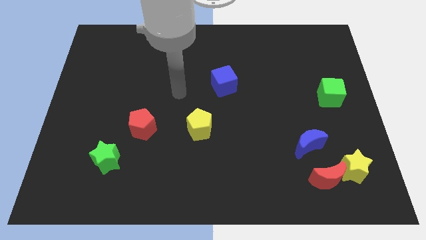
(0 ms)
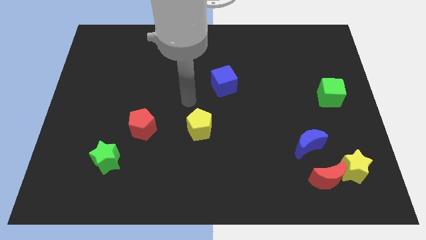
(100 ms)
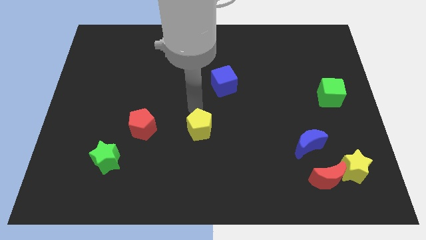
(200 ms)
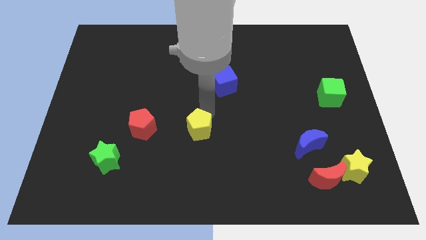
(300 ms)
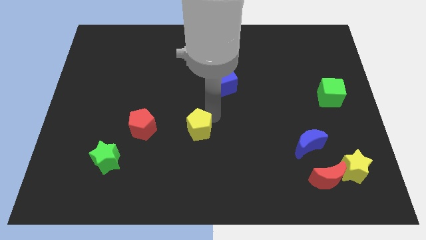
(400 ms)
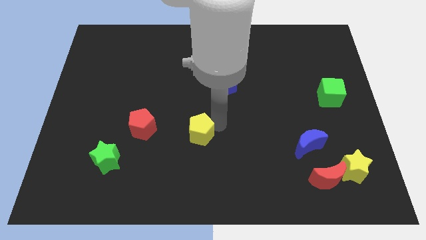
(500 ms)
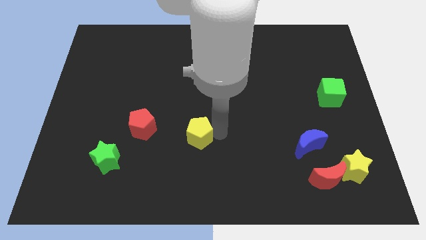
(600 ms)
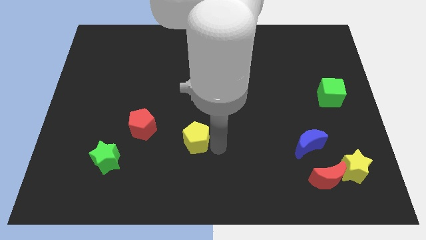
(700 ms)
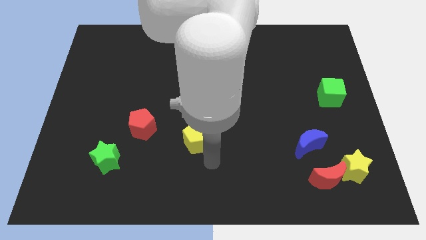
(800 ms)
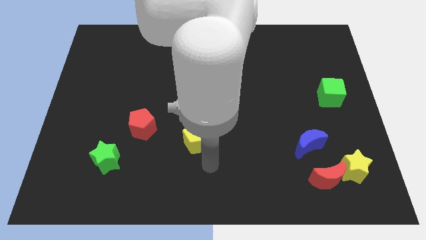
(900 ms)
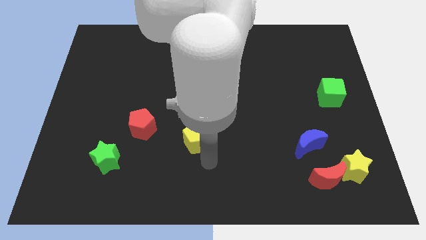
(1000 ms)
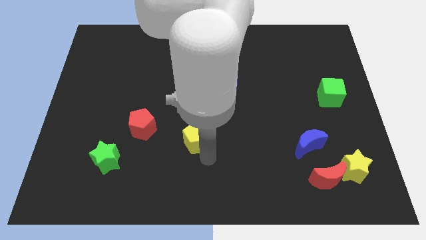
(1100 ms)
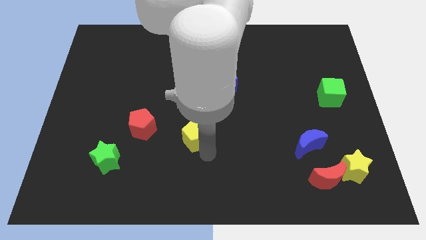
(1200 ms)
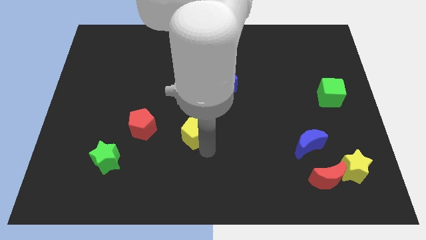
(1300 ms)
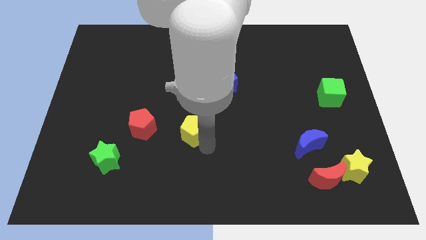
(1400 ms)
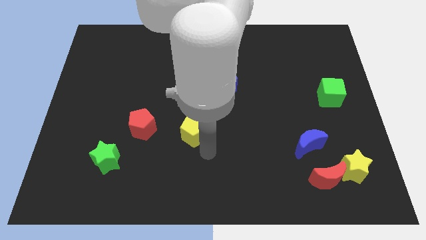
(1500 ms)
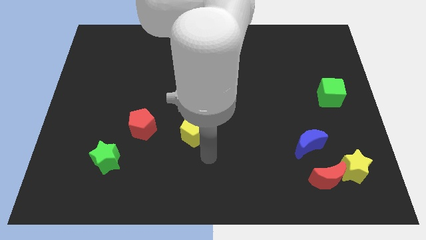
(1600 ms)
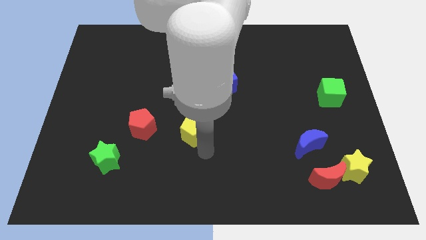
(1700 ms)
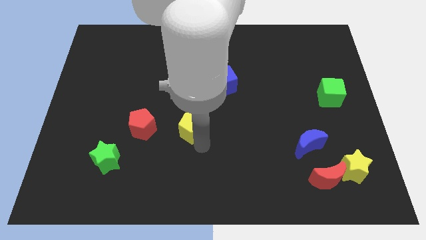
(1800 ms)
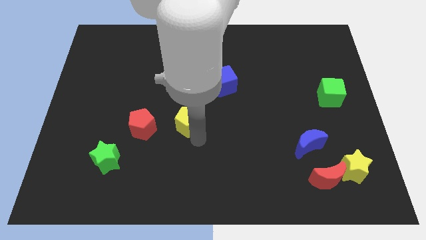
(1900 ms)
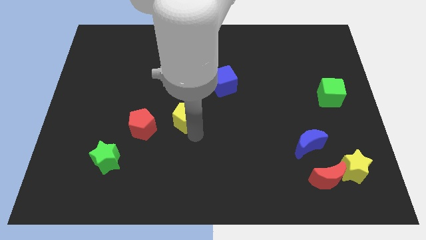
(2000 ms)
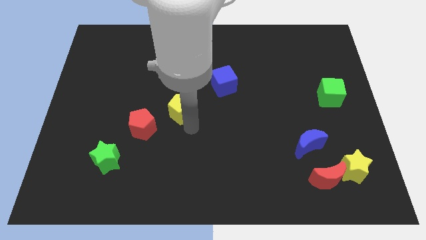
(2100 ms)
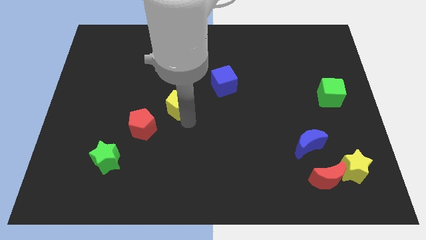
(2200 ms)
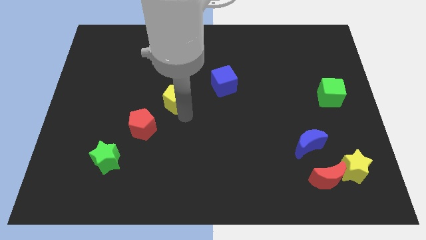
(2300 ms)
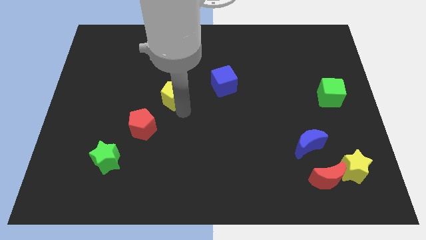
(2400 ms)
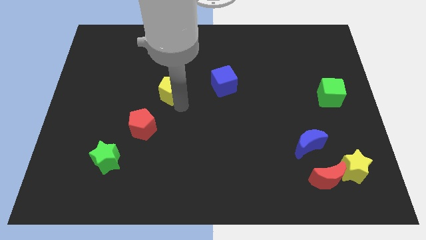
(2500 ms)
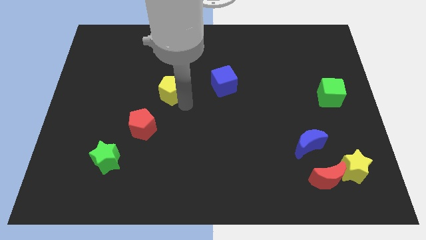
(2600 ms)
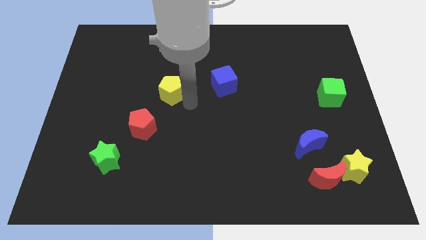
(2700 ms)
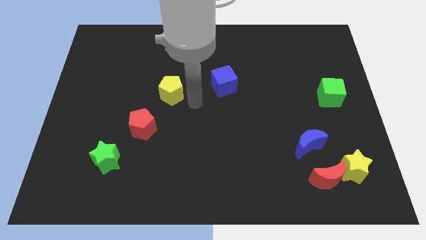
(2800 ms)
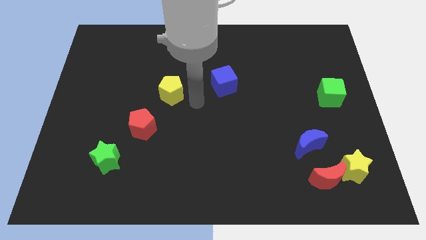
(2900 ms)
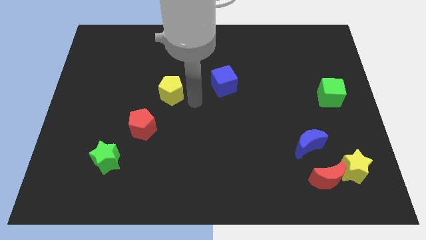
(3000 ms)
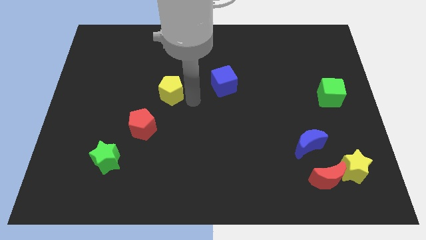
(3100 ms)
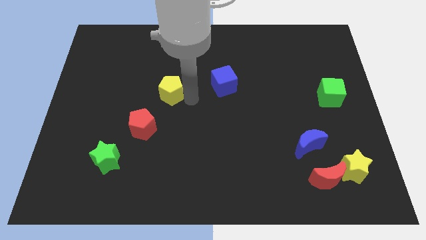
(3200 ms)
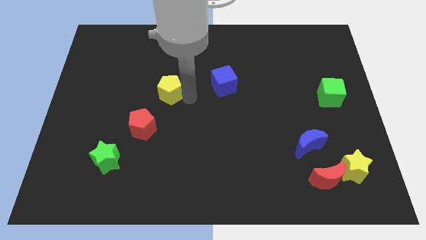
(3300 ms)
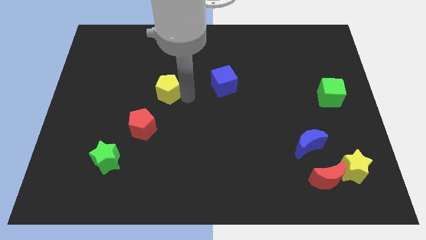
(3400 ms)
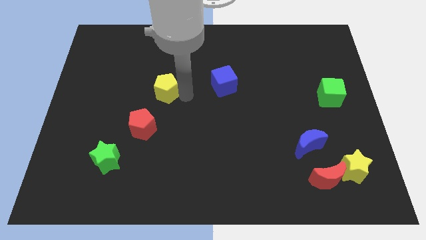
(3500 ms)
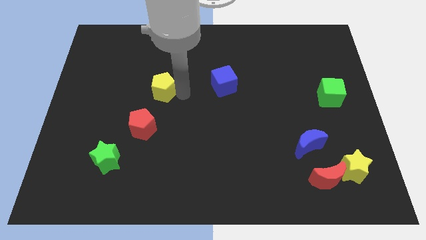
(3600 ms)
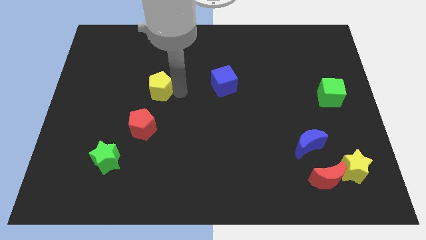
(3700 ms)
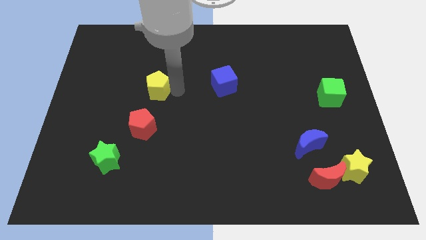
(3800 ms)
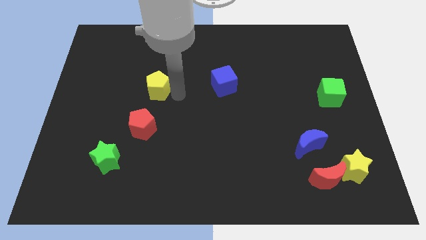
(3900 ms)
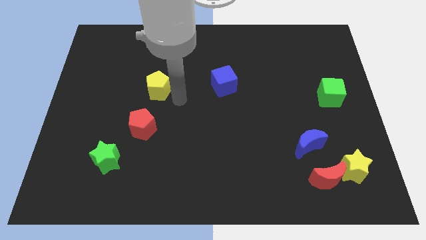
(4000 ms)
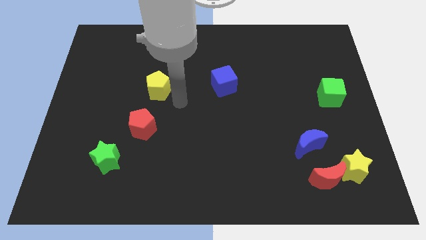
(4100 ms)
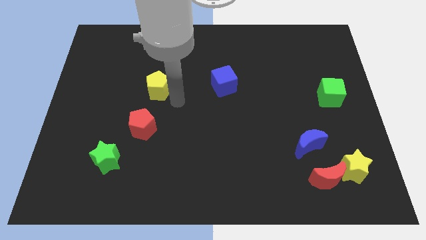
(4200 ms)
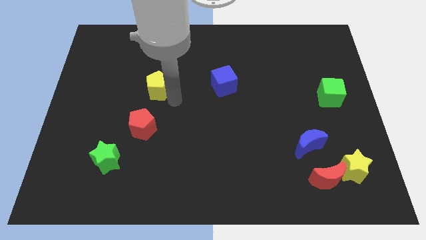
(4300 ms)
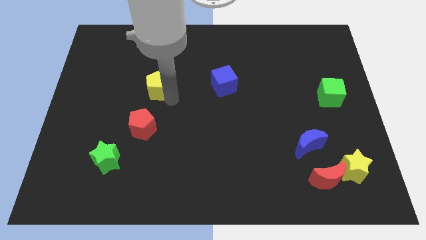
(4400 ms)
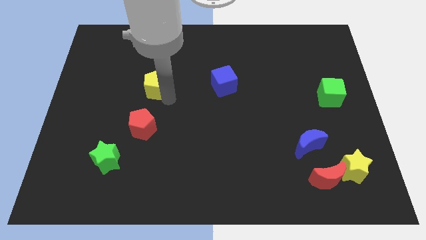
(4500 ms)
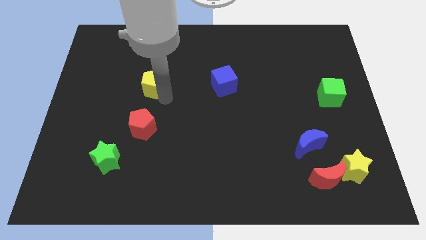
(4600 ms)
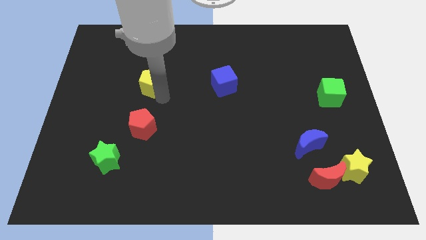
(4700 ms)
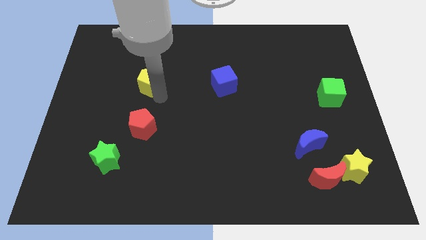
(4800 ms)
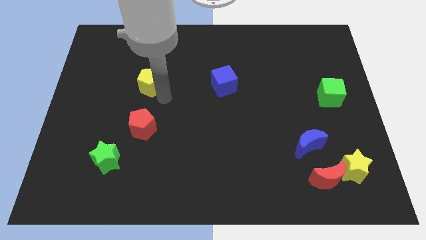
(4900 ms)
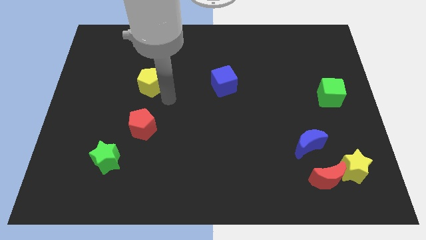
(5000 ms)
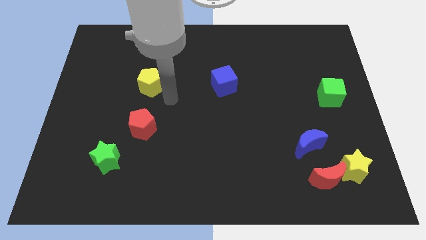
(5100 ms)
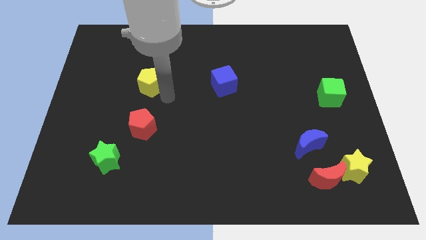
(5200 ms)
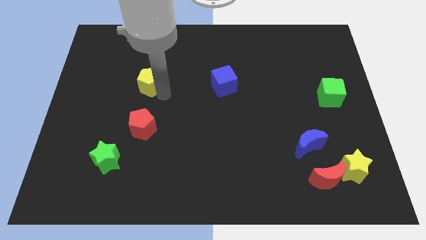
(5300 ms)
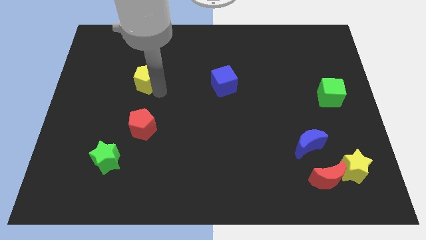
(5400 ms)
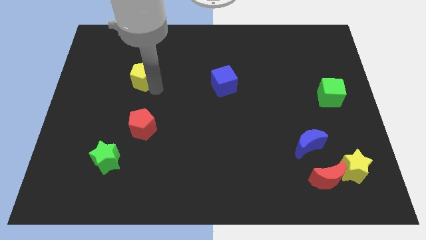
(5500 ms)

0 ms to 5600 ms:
move the yellow pentagon up and then left

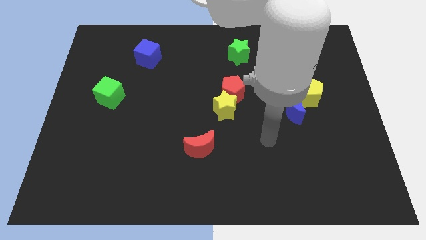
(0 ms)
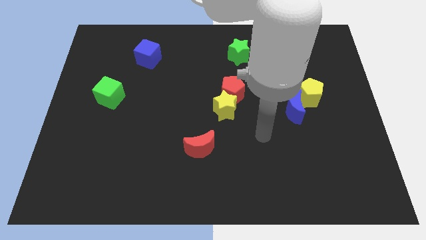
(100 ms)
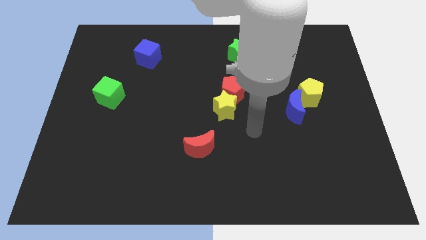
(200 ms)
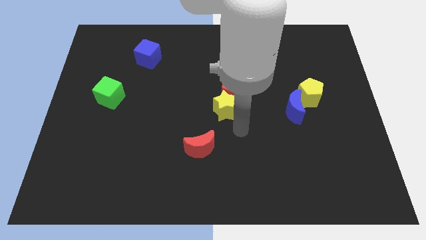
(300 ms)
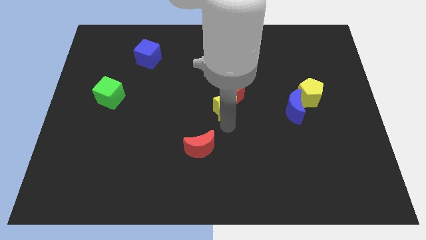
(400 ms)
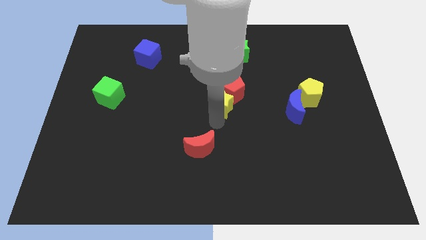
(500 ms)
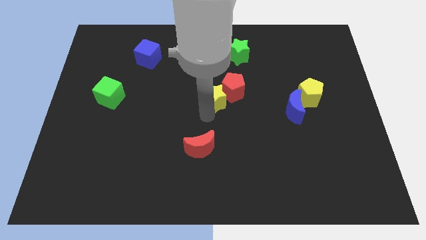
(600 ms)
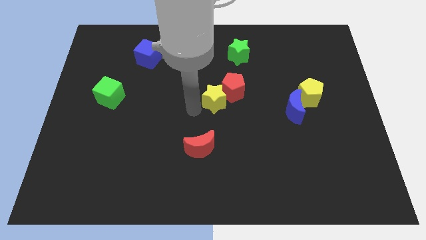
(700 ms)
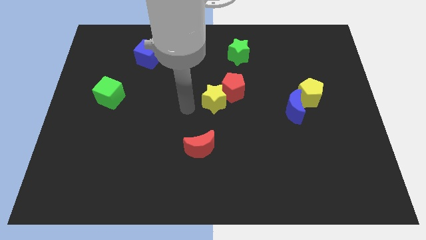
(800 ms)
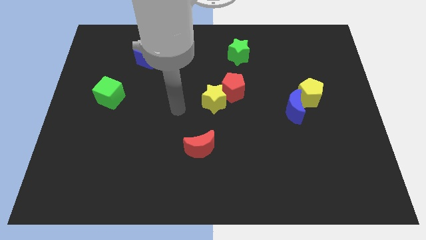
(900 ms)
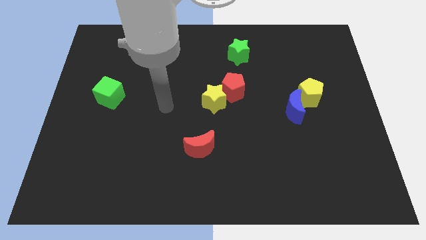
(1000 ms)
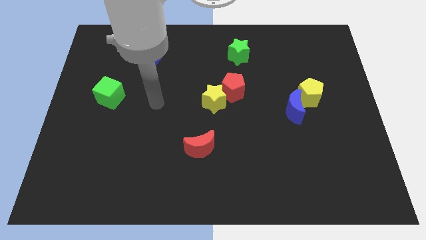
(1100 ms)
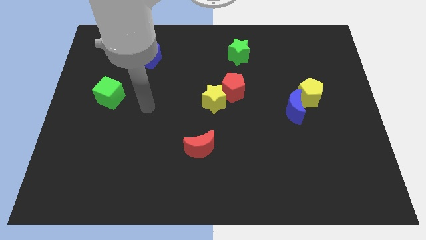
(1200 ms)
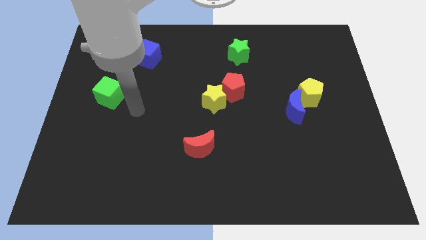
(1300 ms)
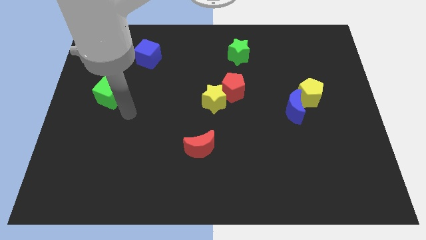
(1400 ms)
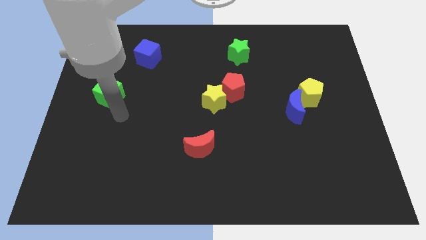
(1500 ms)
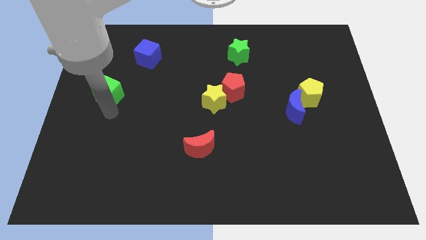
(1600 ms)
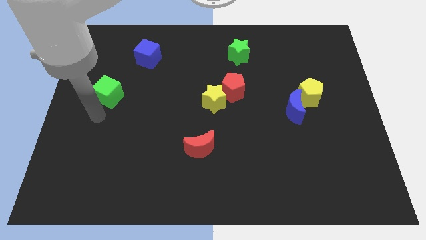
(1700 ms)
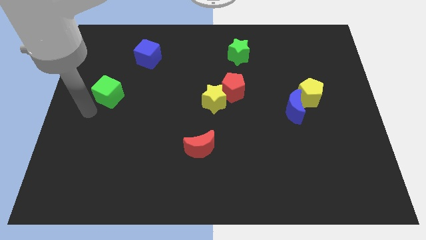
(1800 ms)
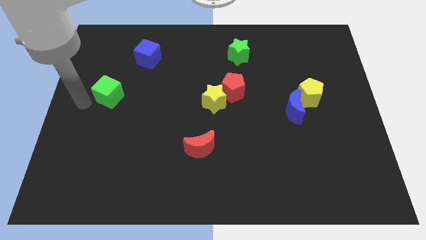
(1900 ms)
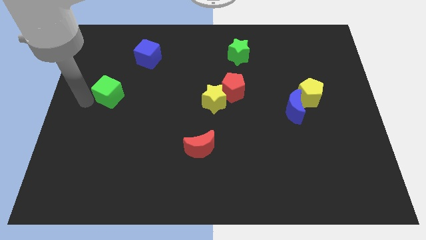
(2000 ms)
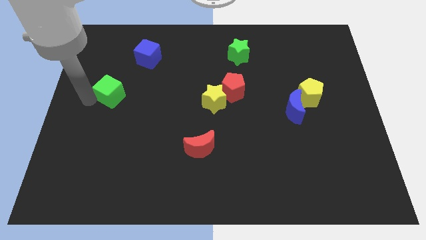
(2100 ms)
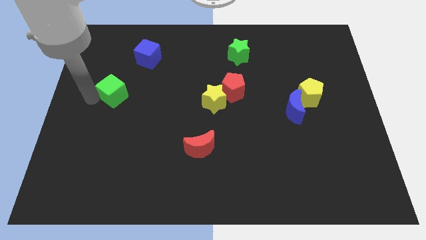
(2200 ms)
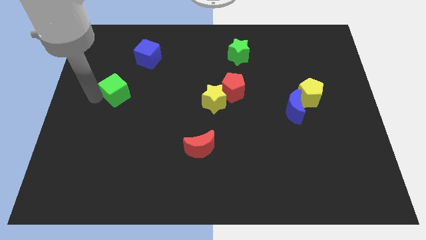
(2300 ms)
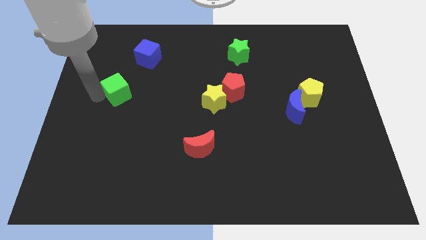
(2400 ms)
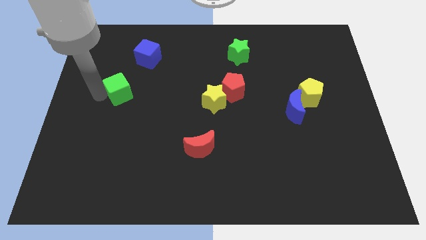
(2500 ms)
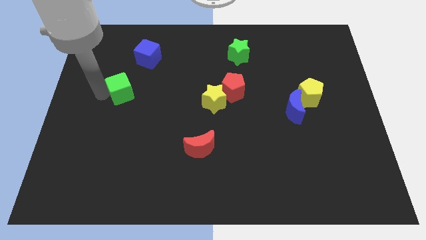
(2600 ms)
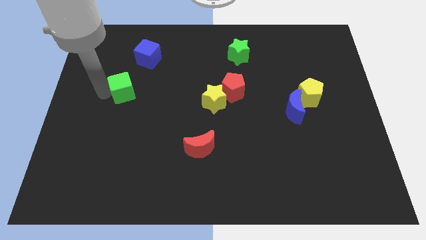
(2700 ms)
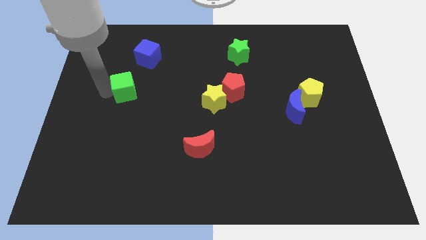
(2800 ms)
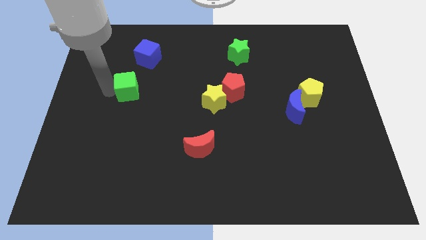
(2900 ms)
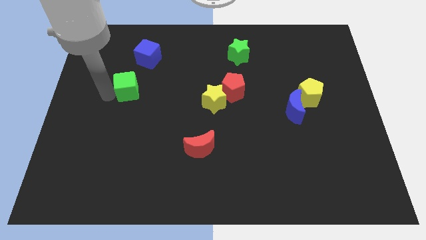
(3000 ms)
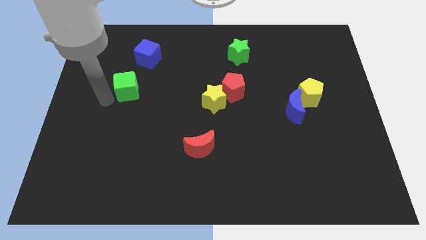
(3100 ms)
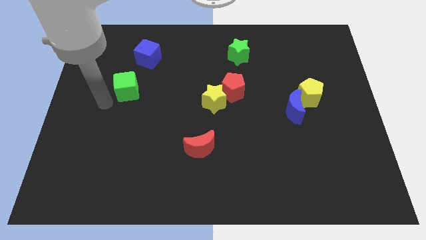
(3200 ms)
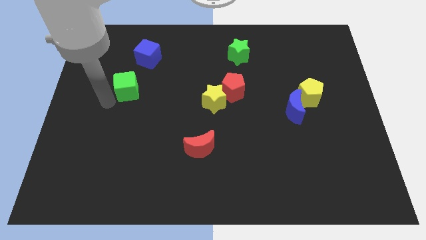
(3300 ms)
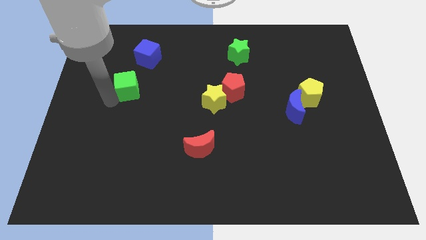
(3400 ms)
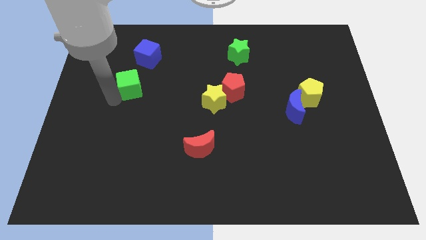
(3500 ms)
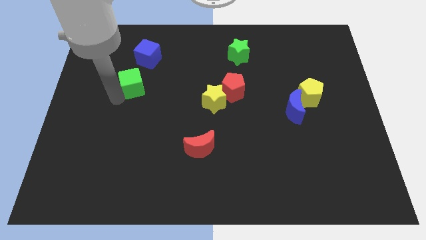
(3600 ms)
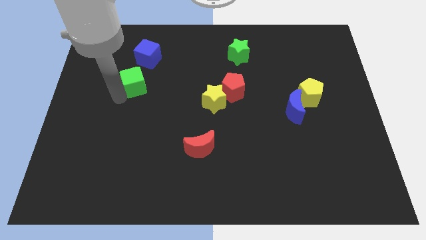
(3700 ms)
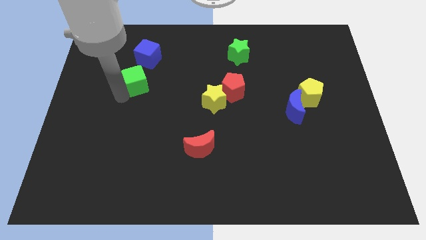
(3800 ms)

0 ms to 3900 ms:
move the green cube a little upwards and right
